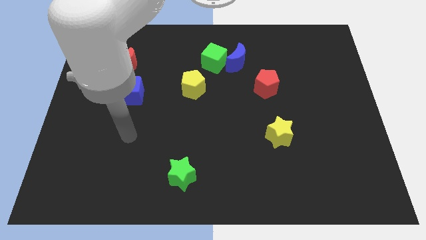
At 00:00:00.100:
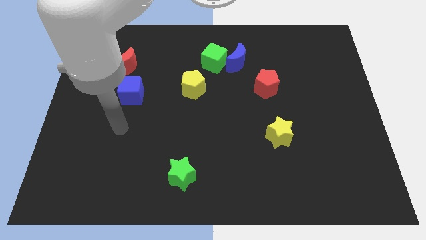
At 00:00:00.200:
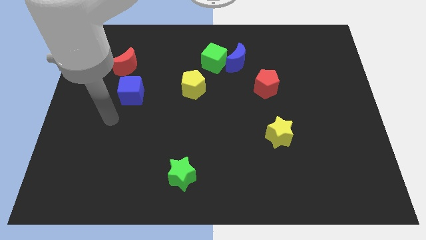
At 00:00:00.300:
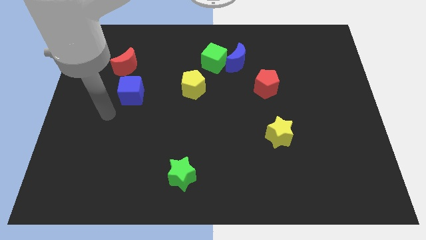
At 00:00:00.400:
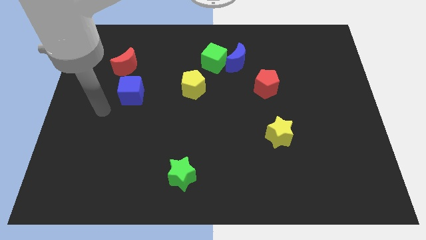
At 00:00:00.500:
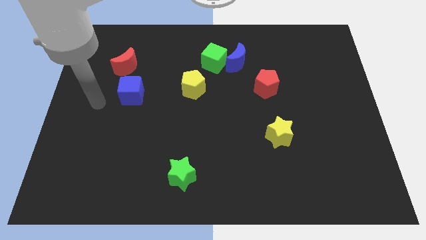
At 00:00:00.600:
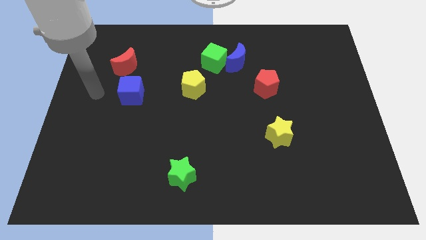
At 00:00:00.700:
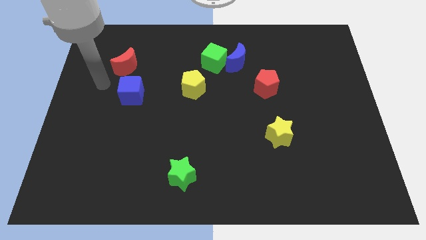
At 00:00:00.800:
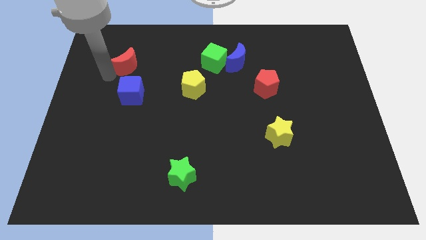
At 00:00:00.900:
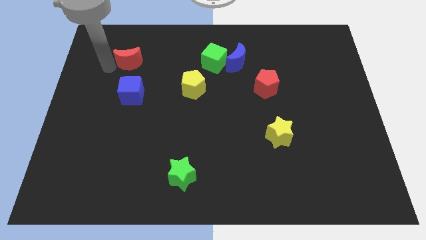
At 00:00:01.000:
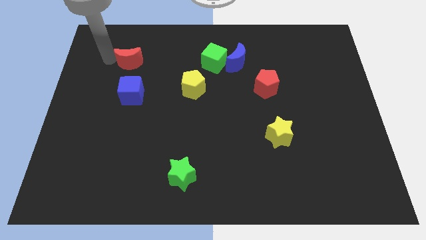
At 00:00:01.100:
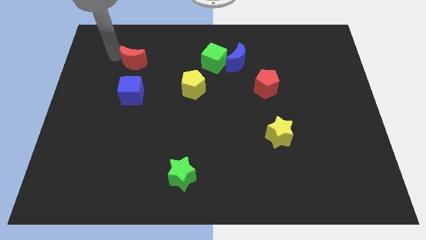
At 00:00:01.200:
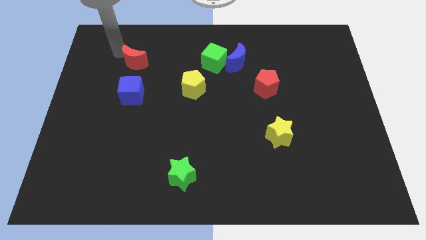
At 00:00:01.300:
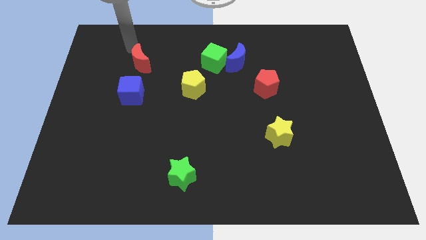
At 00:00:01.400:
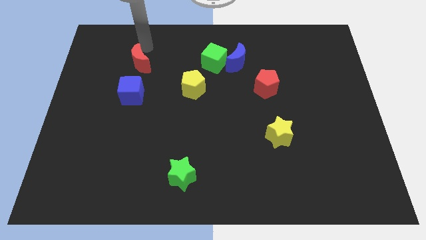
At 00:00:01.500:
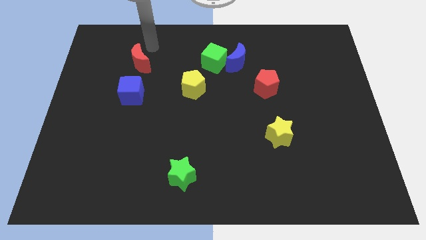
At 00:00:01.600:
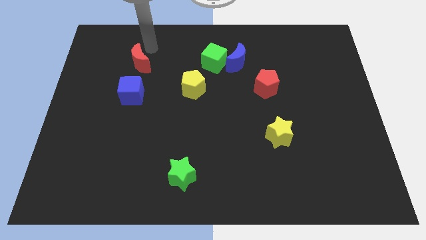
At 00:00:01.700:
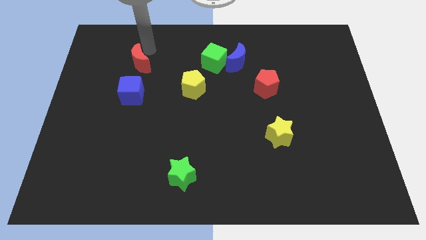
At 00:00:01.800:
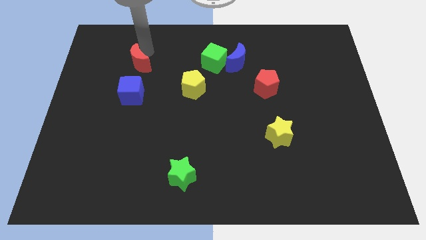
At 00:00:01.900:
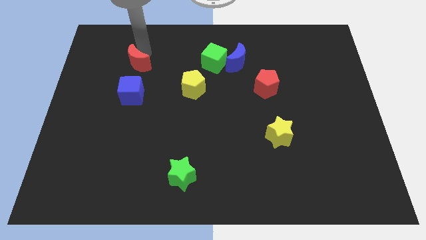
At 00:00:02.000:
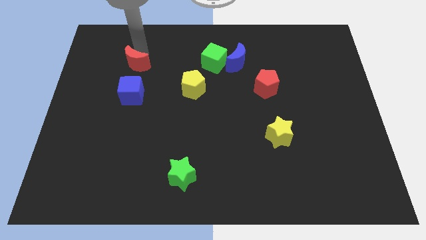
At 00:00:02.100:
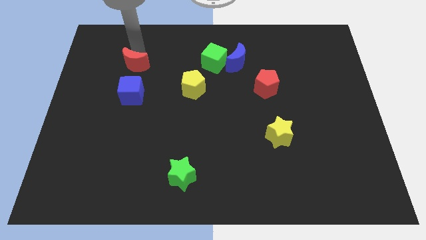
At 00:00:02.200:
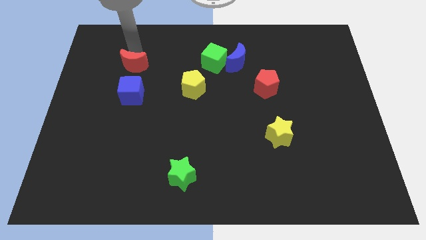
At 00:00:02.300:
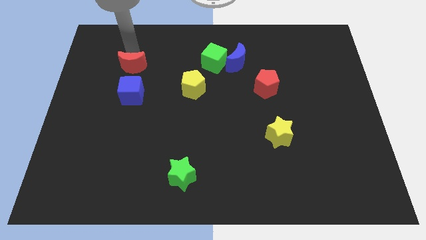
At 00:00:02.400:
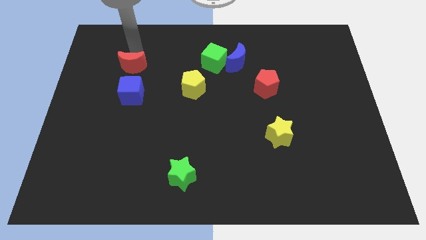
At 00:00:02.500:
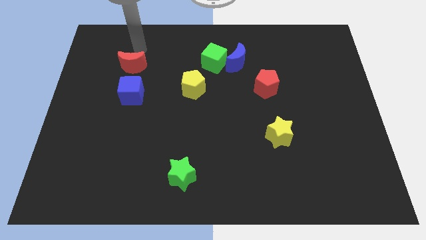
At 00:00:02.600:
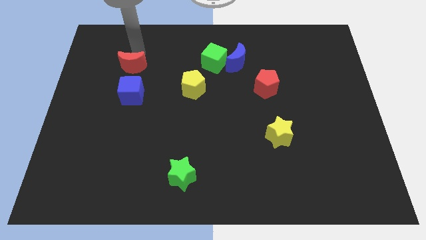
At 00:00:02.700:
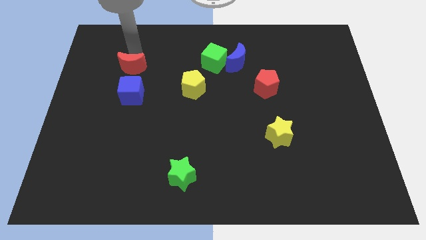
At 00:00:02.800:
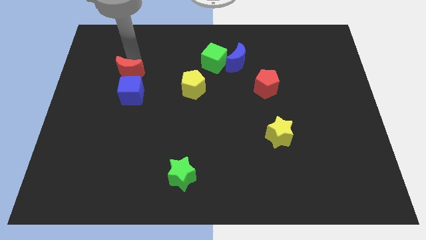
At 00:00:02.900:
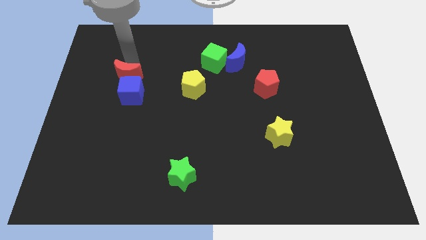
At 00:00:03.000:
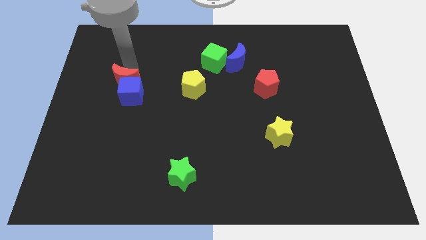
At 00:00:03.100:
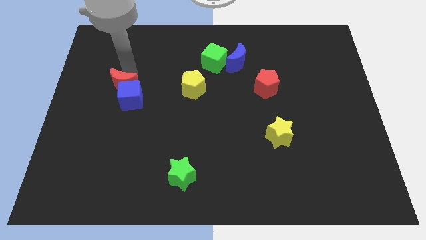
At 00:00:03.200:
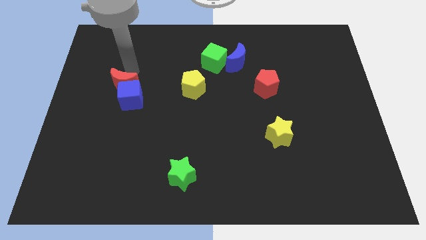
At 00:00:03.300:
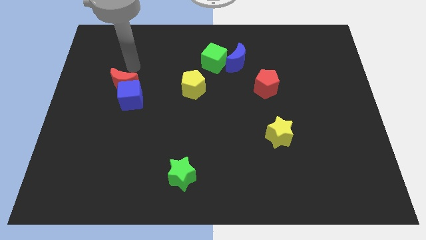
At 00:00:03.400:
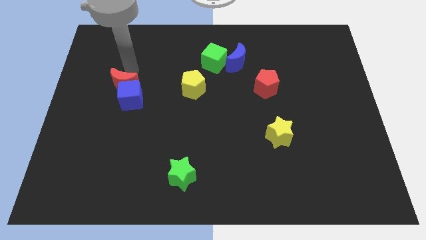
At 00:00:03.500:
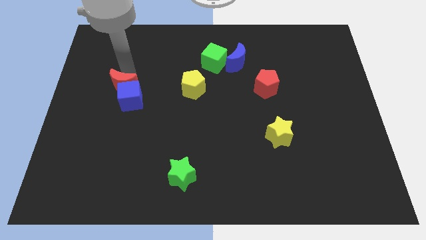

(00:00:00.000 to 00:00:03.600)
slightly move the red moon down

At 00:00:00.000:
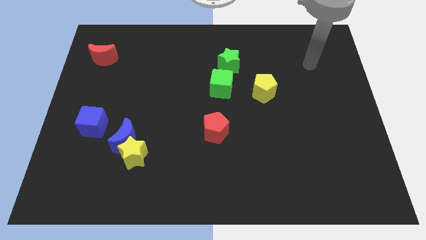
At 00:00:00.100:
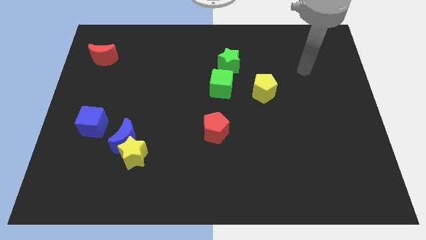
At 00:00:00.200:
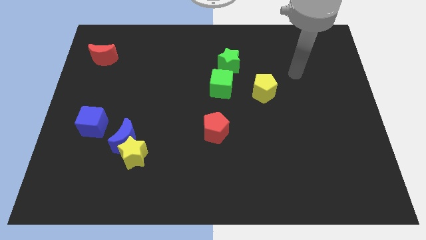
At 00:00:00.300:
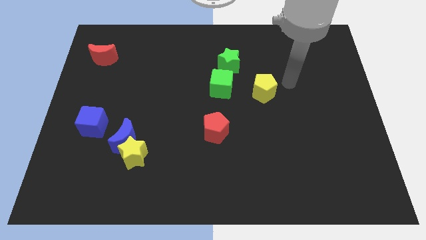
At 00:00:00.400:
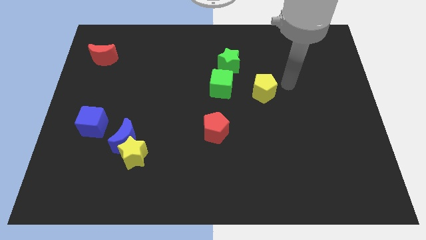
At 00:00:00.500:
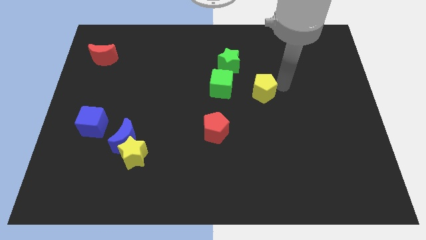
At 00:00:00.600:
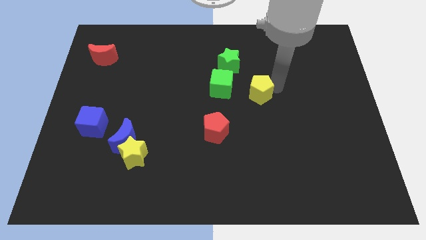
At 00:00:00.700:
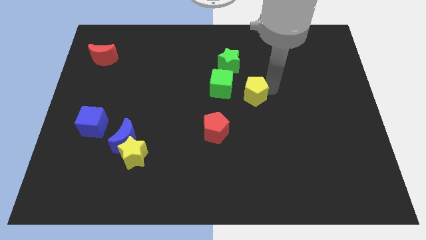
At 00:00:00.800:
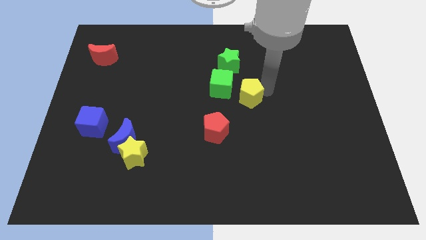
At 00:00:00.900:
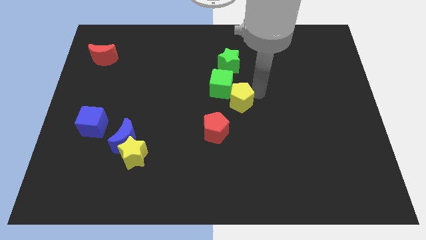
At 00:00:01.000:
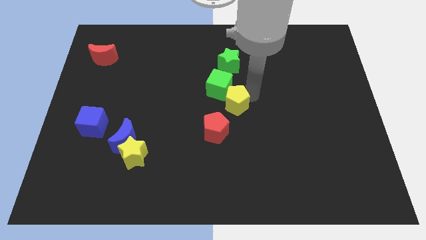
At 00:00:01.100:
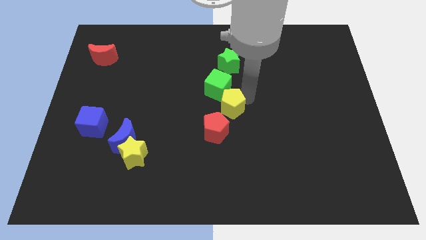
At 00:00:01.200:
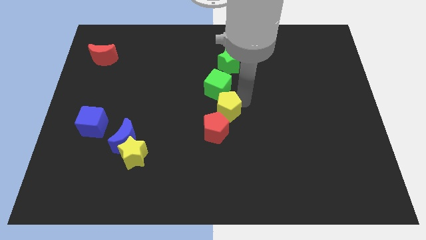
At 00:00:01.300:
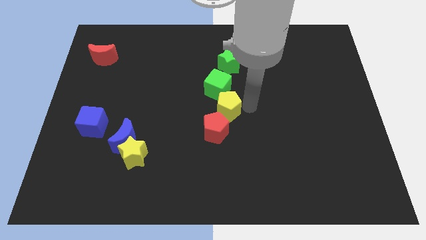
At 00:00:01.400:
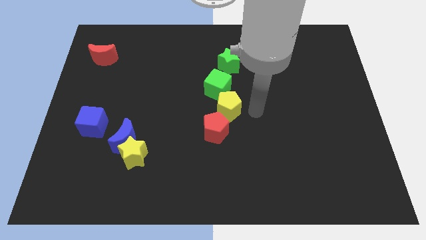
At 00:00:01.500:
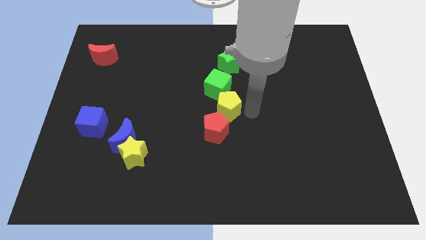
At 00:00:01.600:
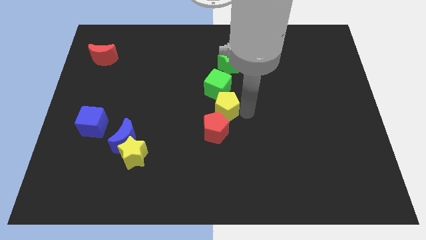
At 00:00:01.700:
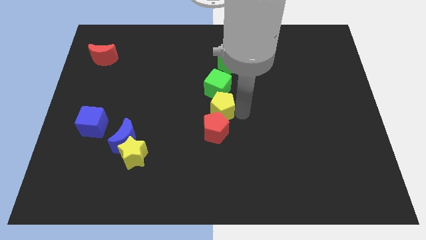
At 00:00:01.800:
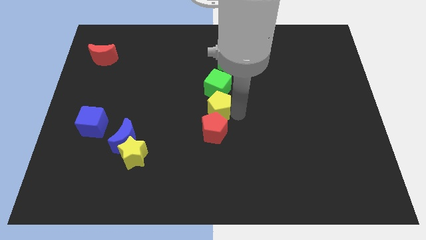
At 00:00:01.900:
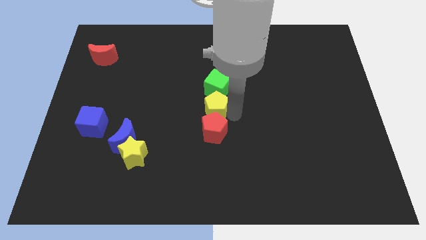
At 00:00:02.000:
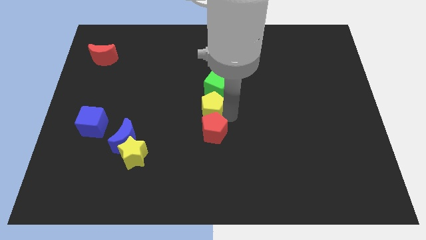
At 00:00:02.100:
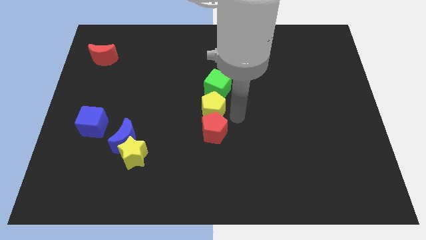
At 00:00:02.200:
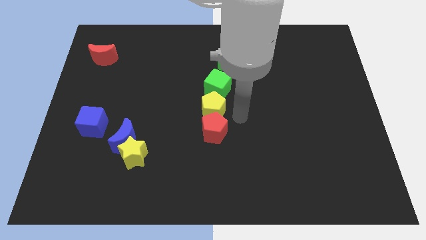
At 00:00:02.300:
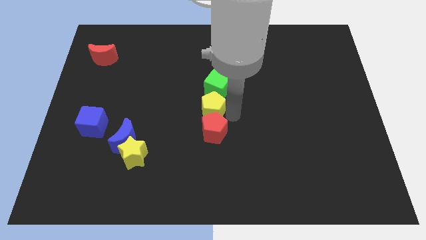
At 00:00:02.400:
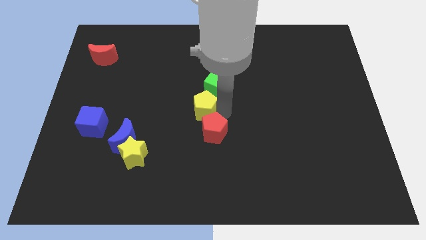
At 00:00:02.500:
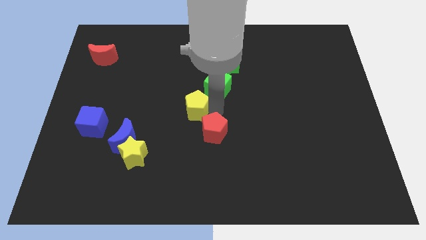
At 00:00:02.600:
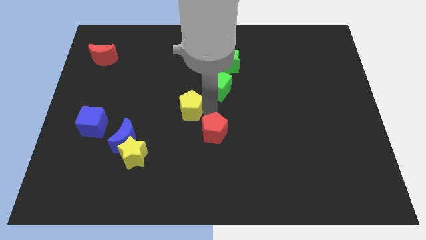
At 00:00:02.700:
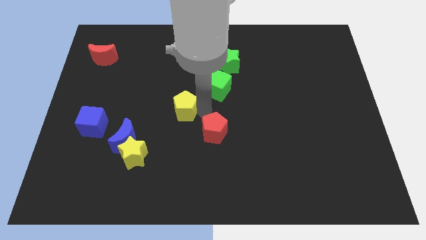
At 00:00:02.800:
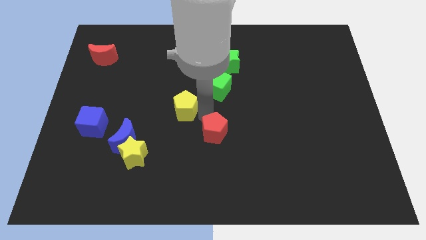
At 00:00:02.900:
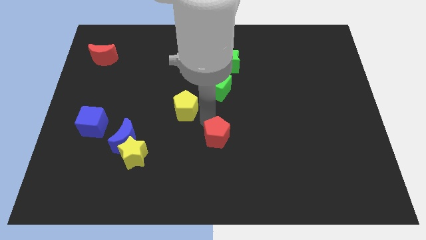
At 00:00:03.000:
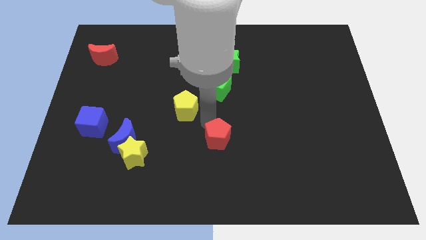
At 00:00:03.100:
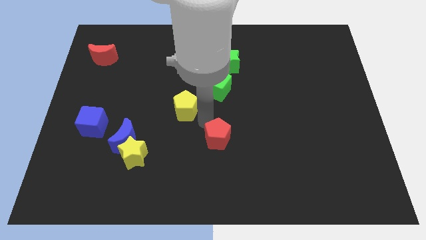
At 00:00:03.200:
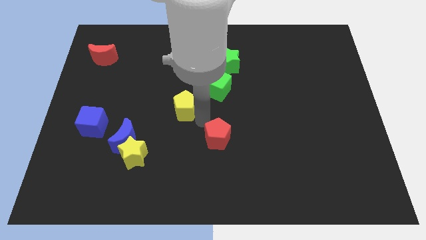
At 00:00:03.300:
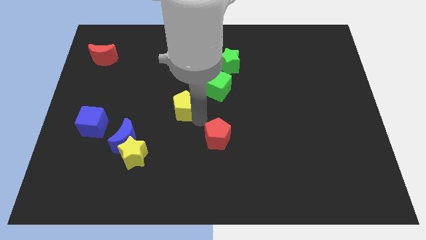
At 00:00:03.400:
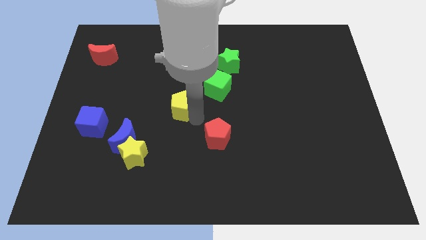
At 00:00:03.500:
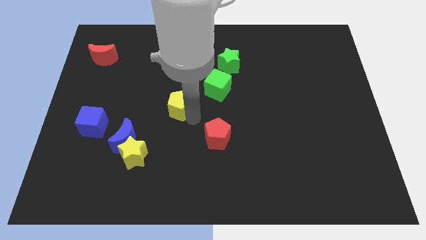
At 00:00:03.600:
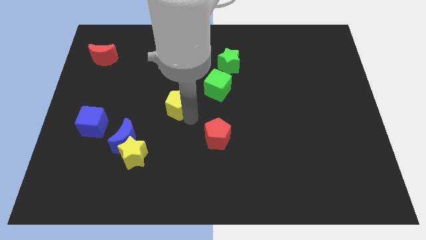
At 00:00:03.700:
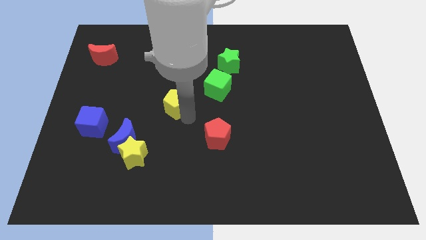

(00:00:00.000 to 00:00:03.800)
push the yellow pentagon left
